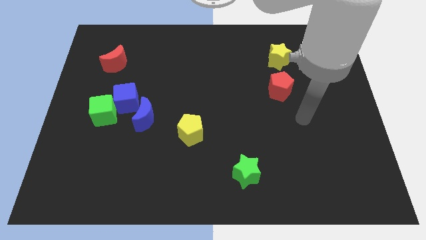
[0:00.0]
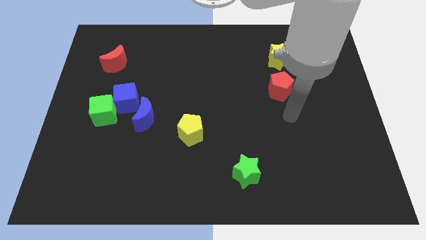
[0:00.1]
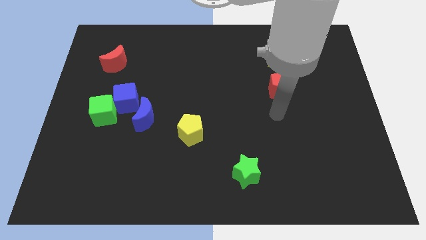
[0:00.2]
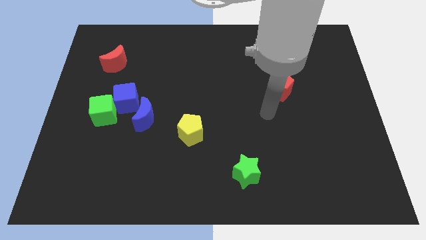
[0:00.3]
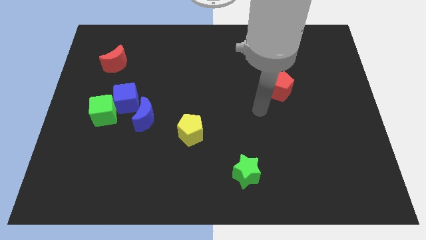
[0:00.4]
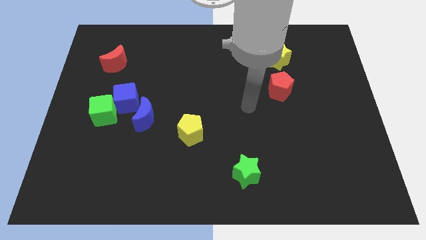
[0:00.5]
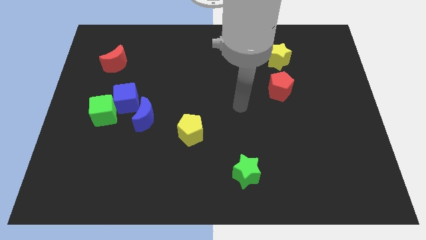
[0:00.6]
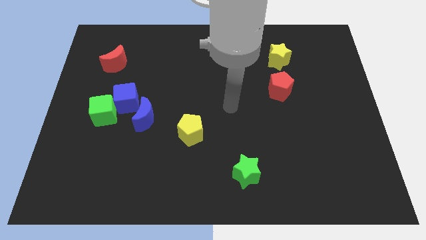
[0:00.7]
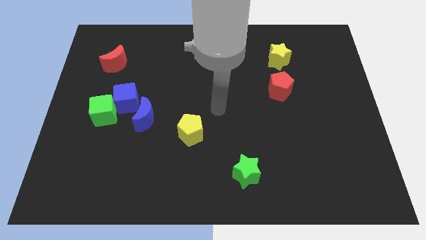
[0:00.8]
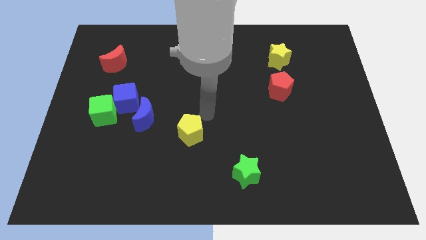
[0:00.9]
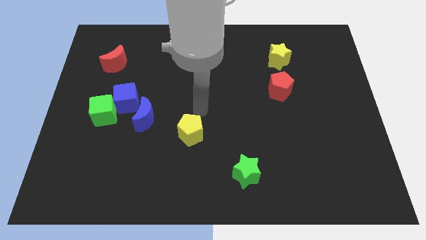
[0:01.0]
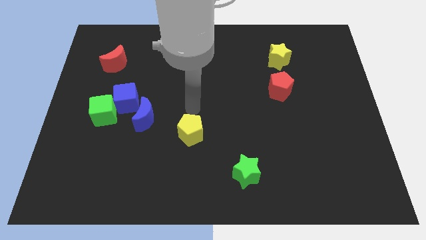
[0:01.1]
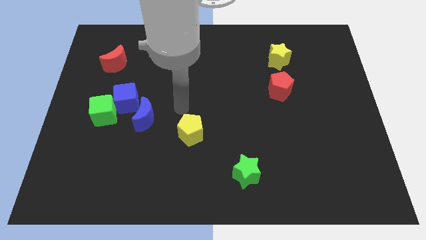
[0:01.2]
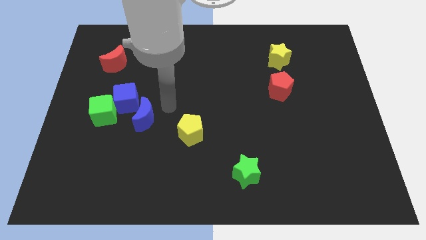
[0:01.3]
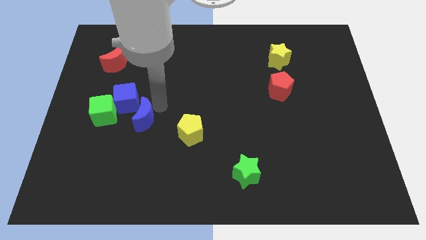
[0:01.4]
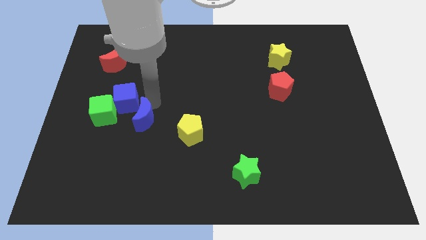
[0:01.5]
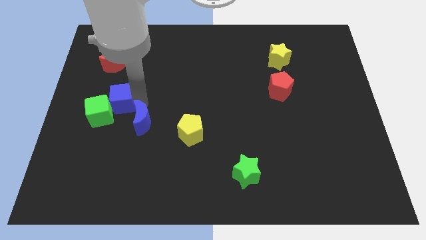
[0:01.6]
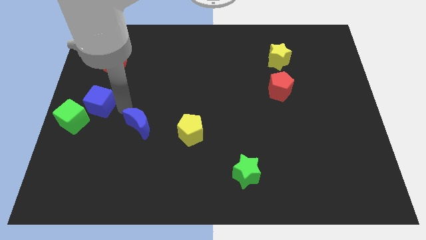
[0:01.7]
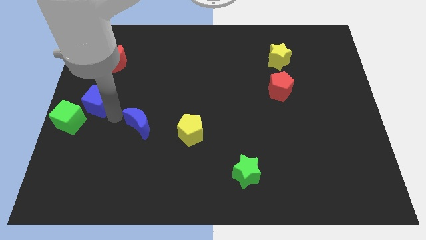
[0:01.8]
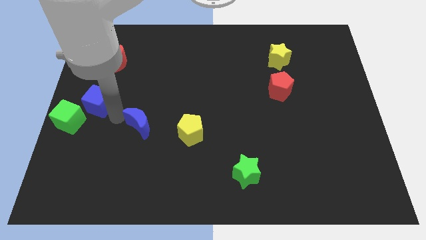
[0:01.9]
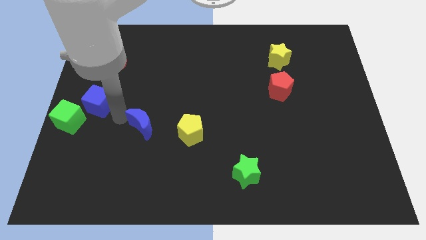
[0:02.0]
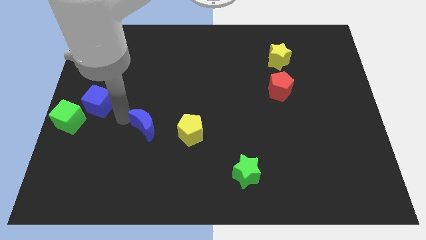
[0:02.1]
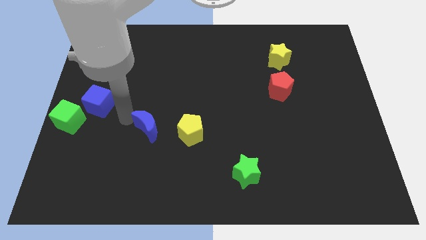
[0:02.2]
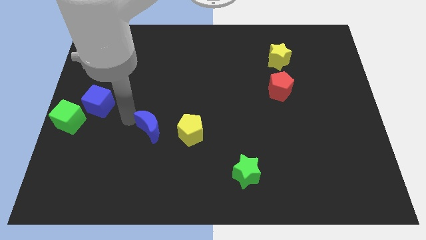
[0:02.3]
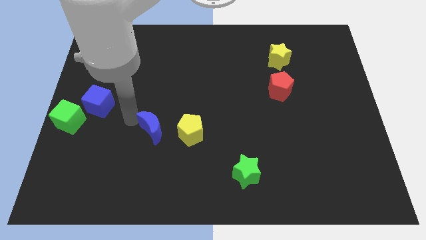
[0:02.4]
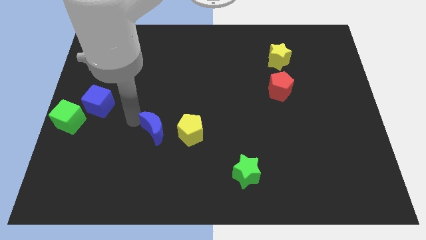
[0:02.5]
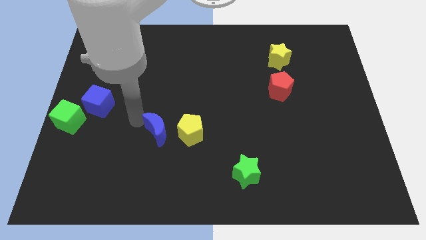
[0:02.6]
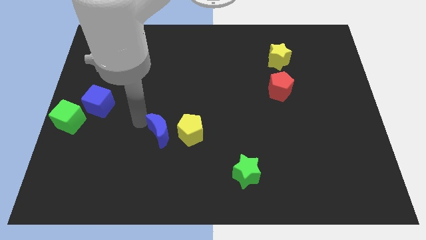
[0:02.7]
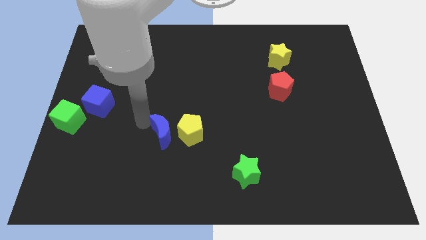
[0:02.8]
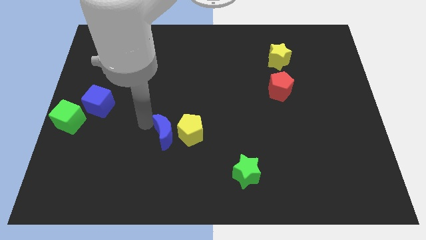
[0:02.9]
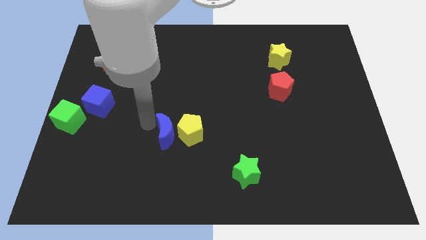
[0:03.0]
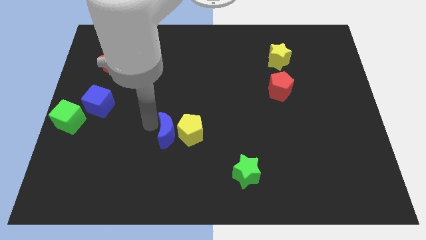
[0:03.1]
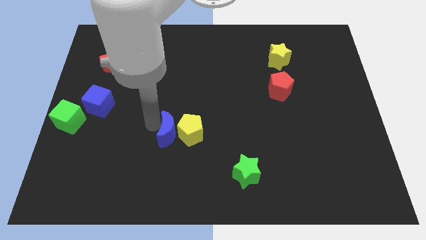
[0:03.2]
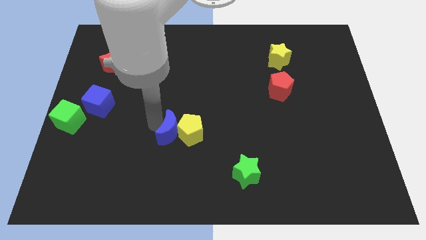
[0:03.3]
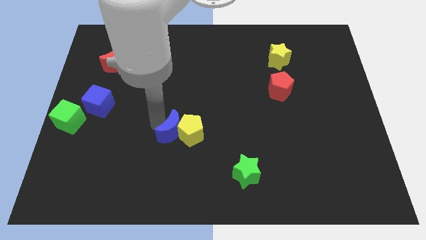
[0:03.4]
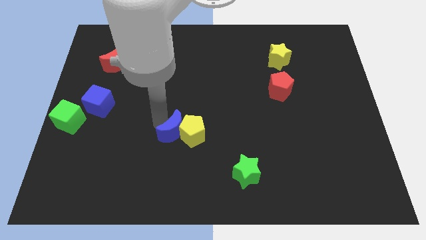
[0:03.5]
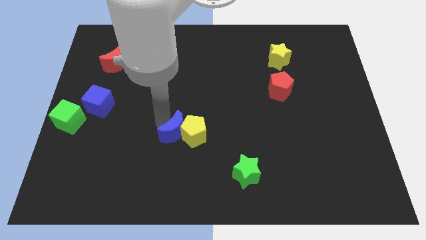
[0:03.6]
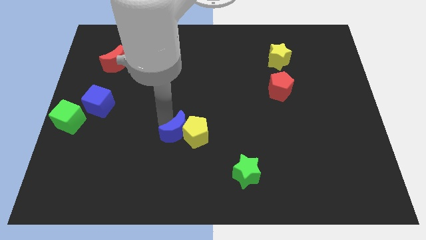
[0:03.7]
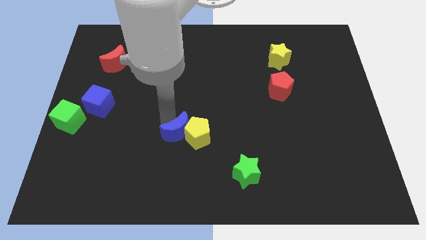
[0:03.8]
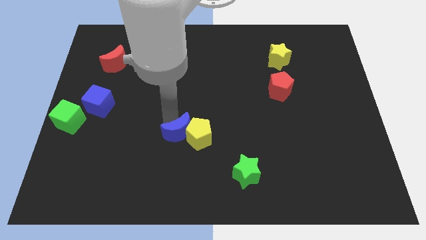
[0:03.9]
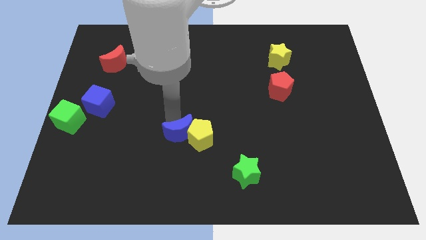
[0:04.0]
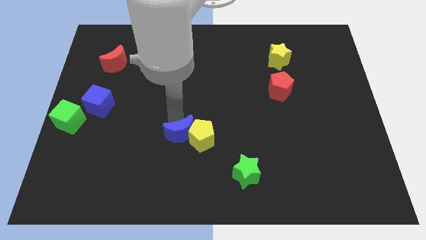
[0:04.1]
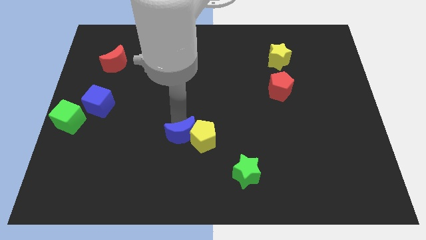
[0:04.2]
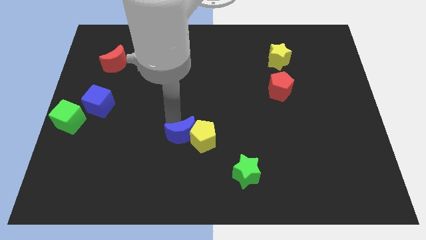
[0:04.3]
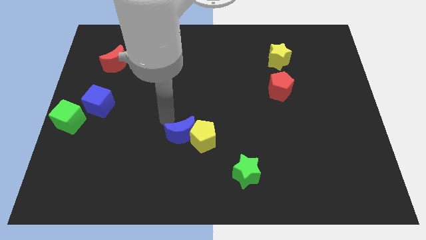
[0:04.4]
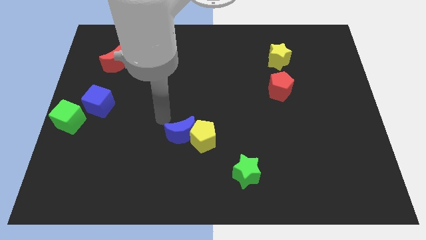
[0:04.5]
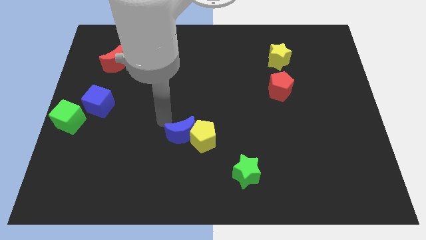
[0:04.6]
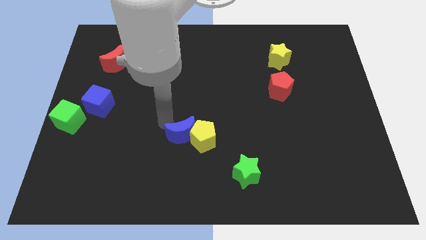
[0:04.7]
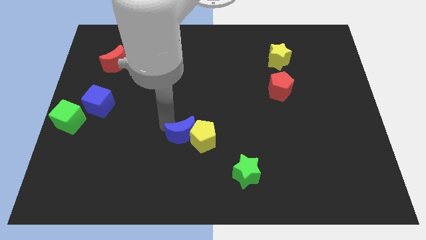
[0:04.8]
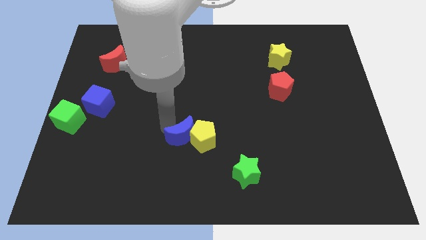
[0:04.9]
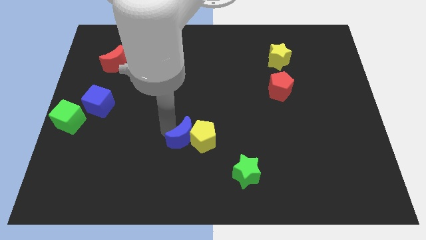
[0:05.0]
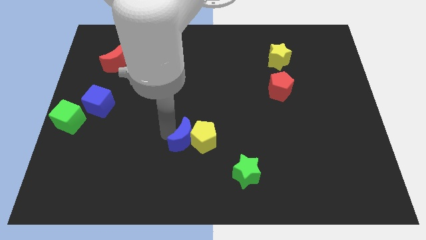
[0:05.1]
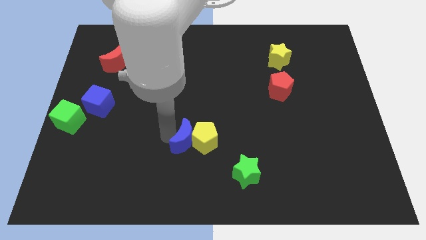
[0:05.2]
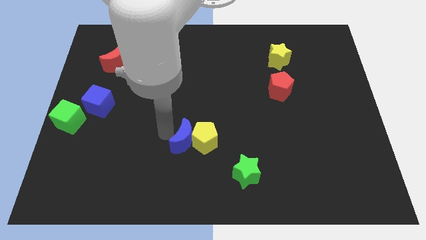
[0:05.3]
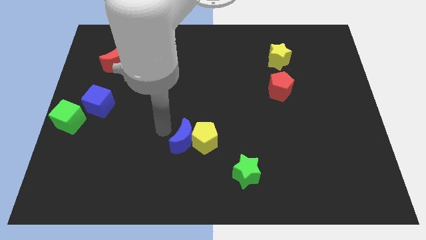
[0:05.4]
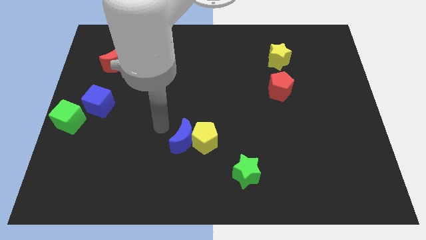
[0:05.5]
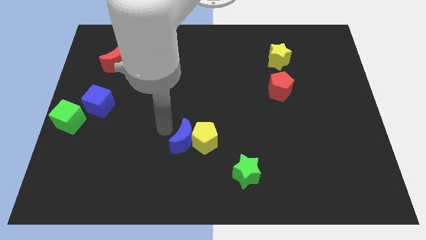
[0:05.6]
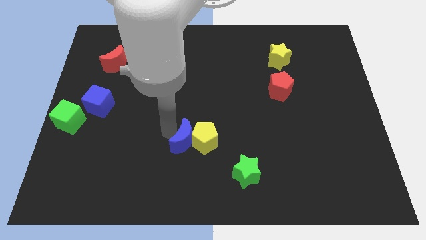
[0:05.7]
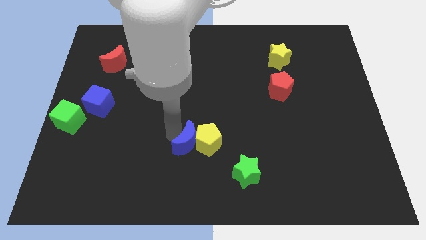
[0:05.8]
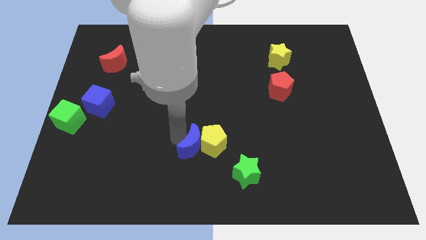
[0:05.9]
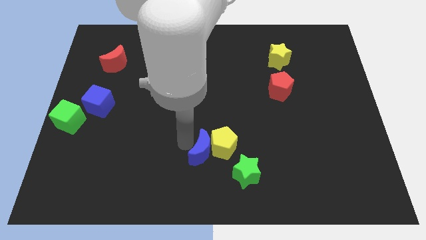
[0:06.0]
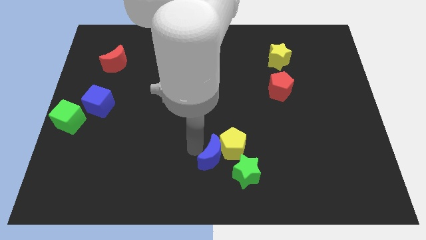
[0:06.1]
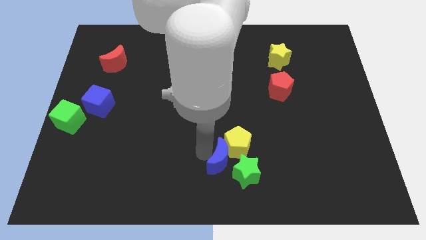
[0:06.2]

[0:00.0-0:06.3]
push the blue moon close to the green star
